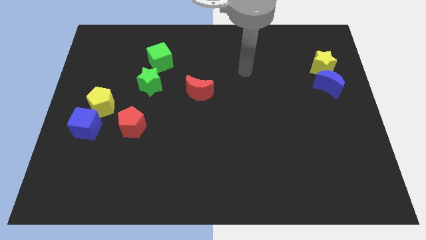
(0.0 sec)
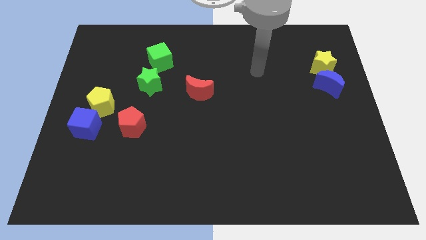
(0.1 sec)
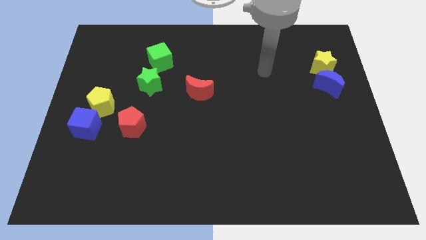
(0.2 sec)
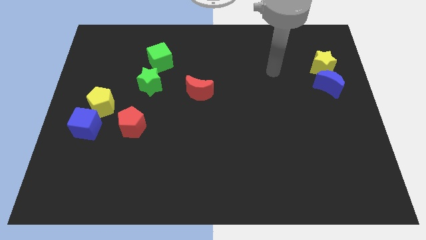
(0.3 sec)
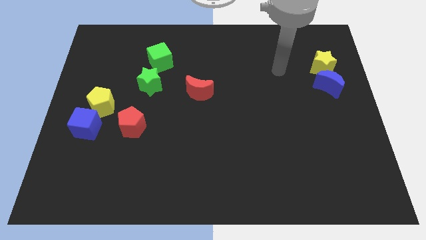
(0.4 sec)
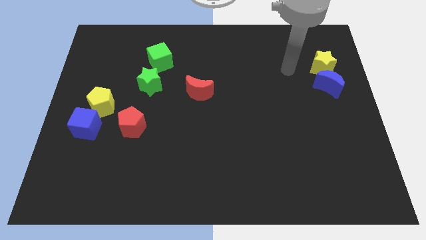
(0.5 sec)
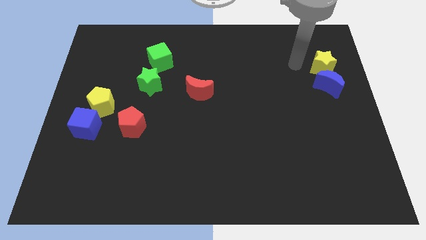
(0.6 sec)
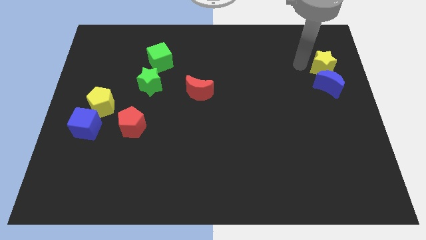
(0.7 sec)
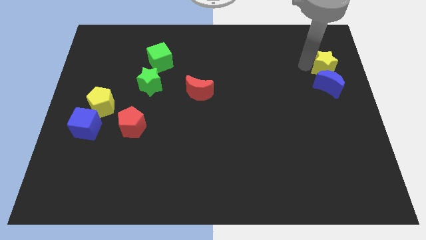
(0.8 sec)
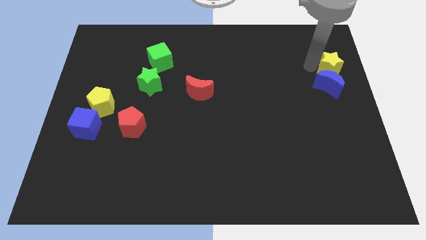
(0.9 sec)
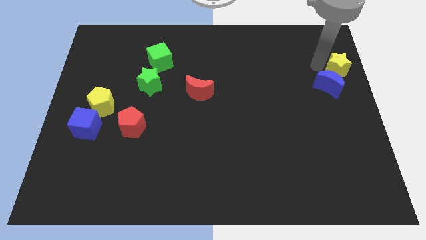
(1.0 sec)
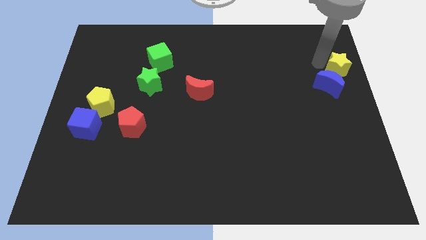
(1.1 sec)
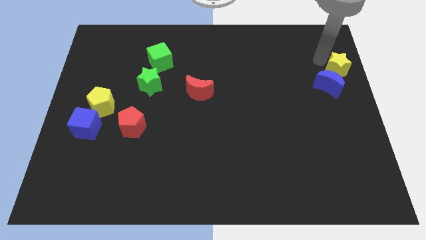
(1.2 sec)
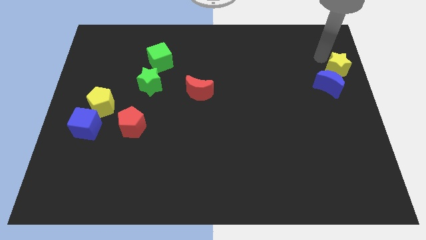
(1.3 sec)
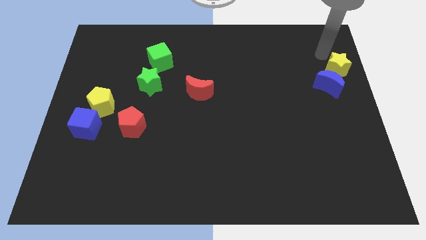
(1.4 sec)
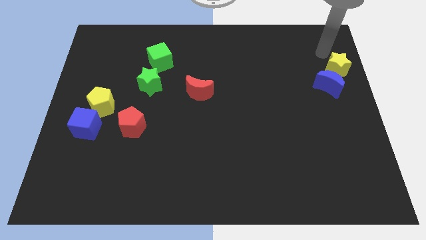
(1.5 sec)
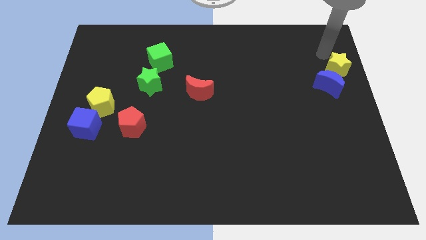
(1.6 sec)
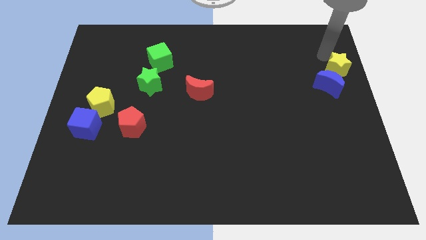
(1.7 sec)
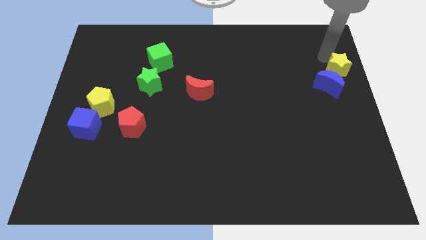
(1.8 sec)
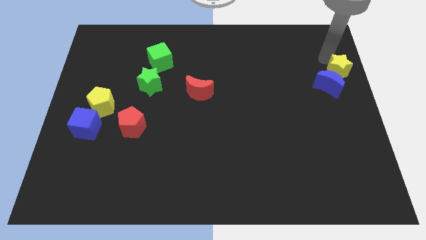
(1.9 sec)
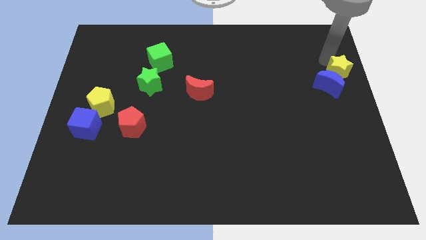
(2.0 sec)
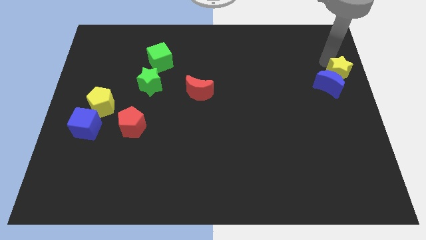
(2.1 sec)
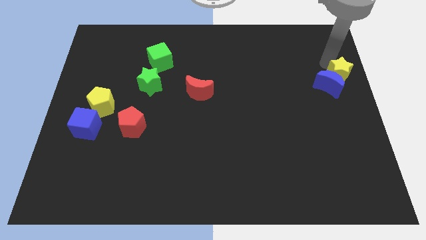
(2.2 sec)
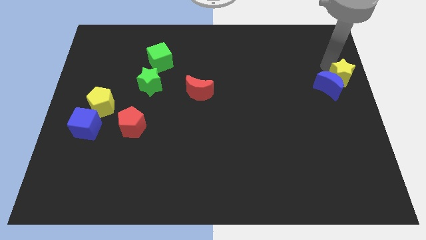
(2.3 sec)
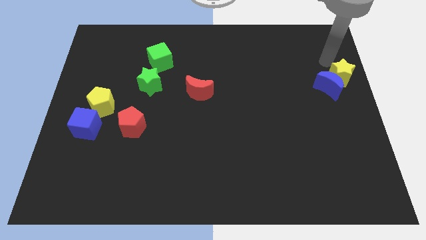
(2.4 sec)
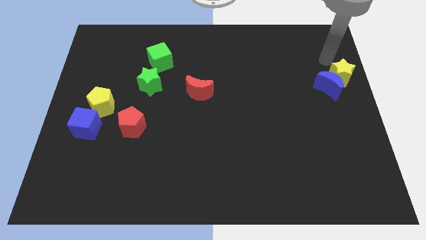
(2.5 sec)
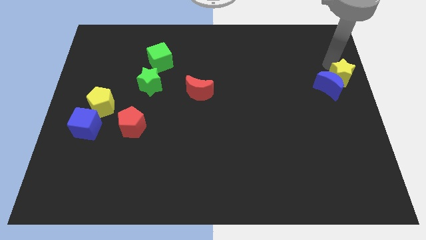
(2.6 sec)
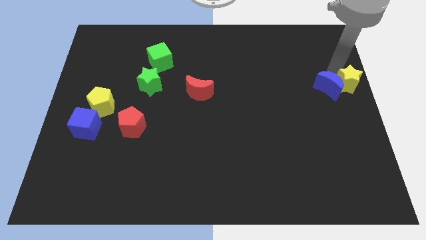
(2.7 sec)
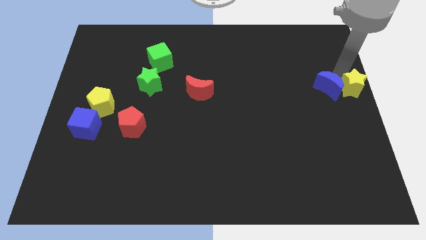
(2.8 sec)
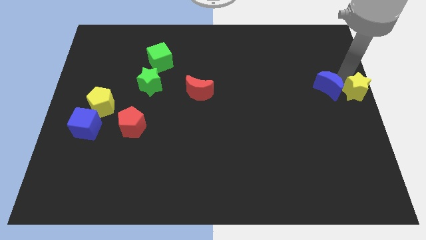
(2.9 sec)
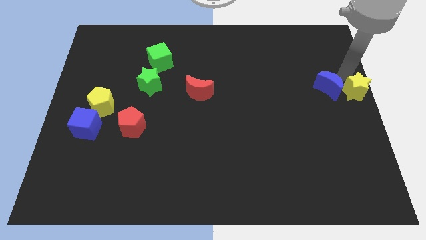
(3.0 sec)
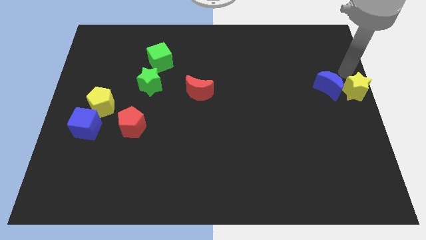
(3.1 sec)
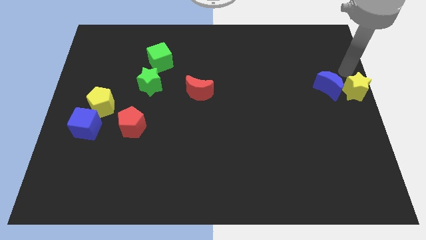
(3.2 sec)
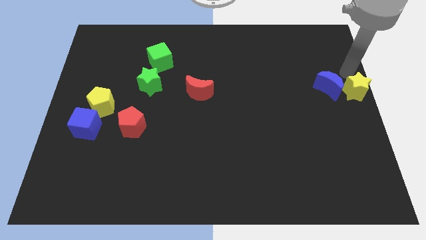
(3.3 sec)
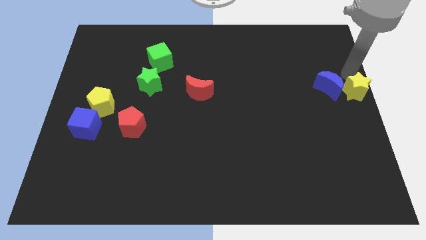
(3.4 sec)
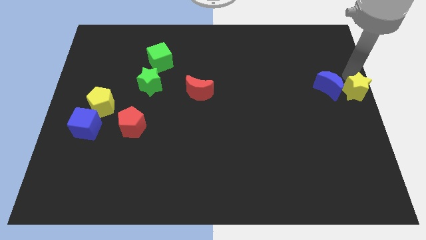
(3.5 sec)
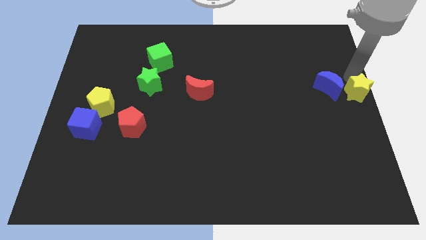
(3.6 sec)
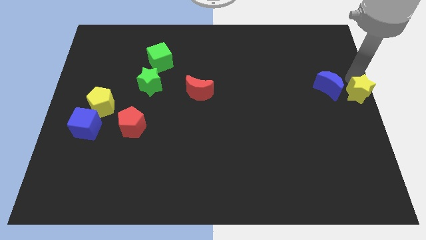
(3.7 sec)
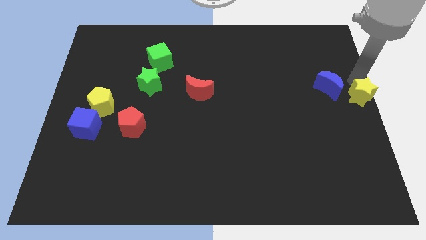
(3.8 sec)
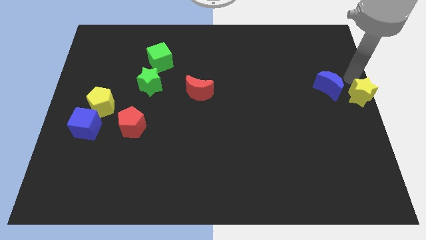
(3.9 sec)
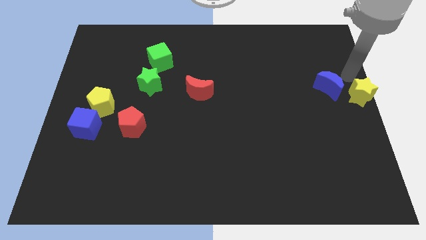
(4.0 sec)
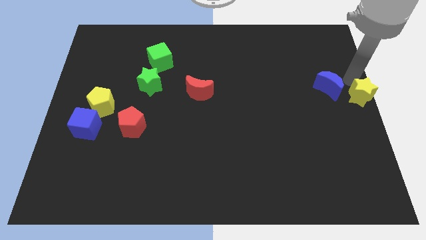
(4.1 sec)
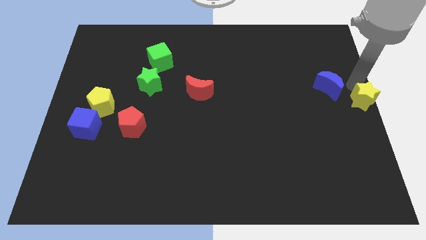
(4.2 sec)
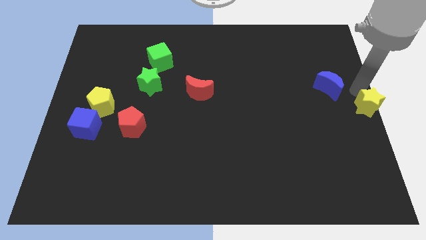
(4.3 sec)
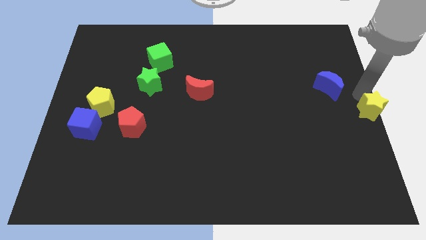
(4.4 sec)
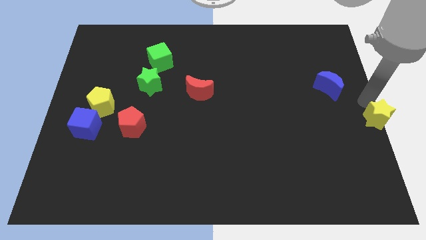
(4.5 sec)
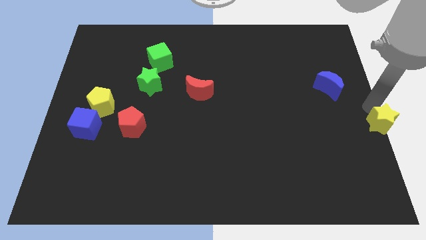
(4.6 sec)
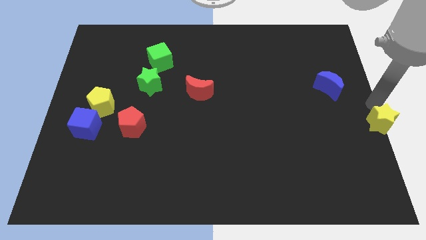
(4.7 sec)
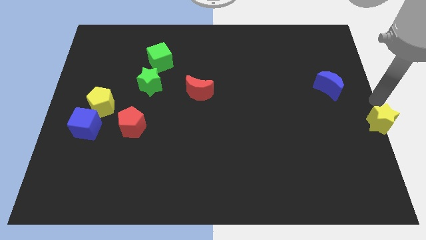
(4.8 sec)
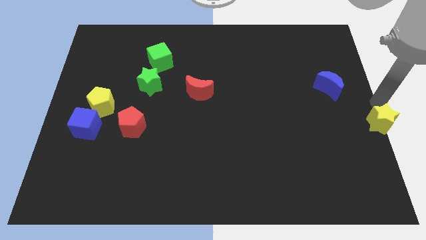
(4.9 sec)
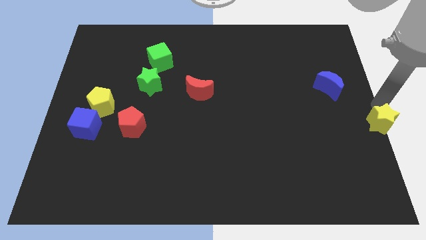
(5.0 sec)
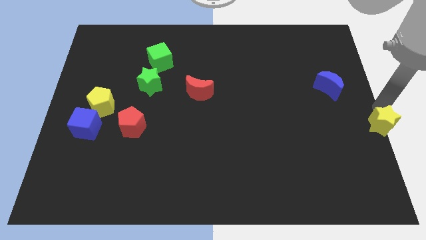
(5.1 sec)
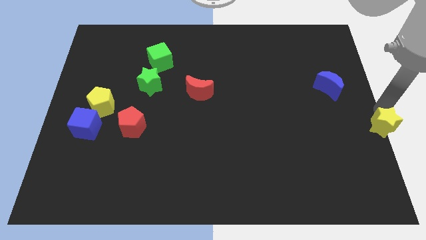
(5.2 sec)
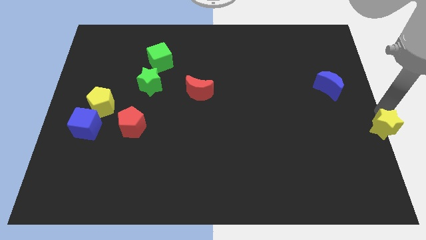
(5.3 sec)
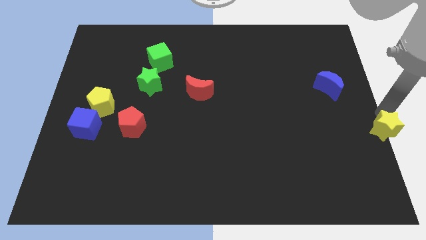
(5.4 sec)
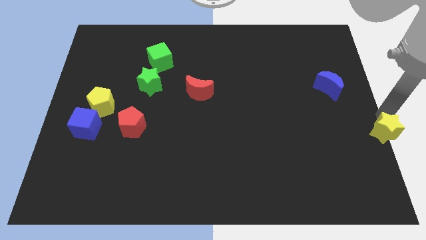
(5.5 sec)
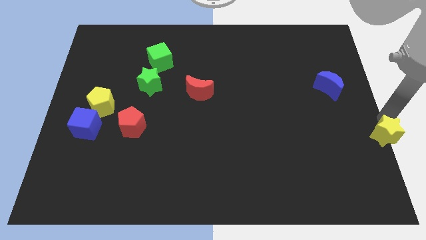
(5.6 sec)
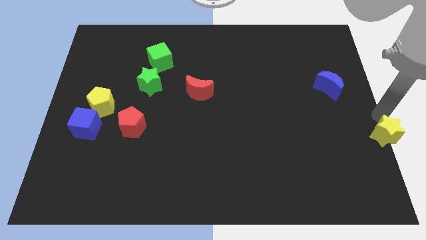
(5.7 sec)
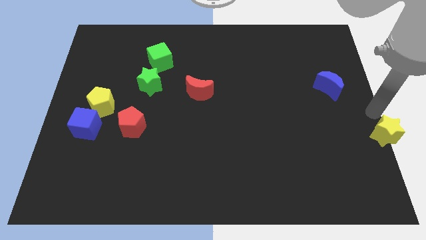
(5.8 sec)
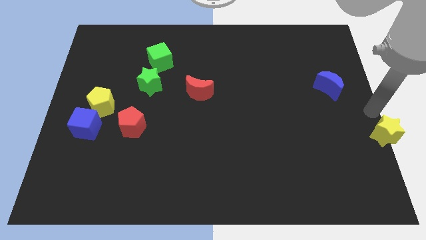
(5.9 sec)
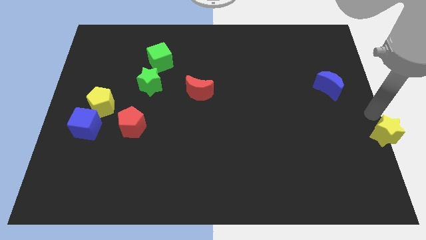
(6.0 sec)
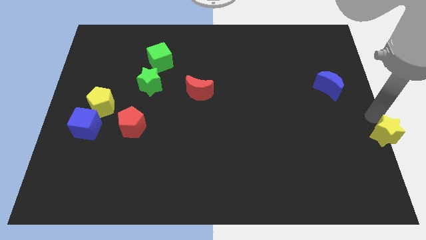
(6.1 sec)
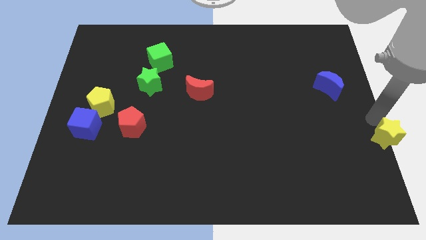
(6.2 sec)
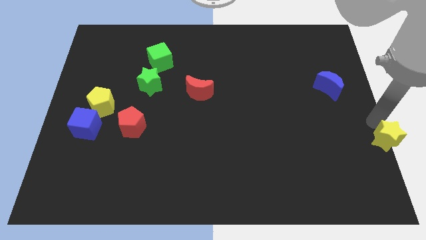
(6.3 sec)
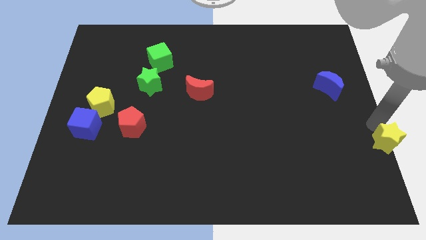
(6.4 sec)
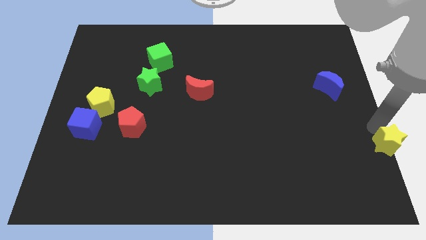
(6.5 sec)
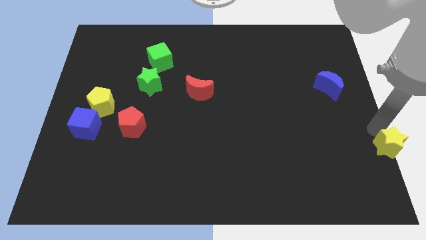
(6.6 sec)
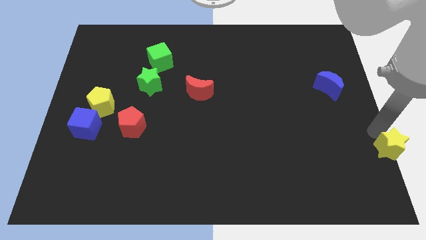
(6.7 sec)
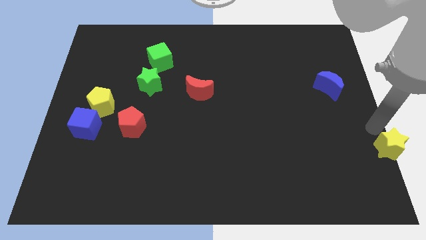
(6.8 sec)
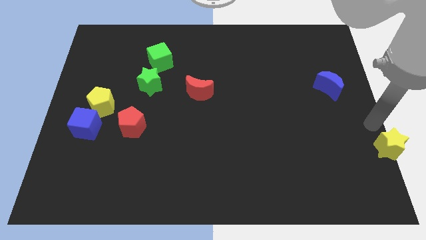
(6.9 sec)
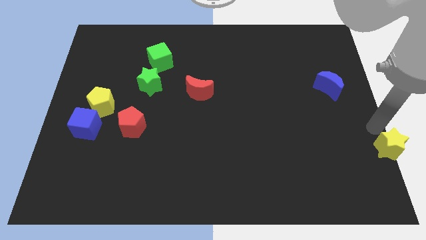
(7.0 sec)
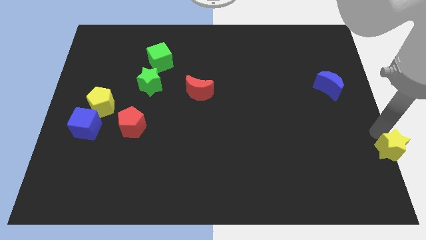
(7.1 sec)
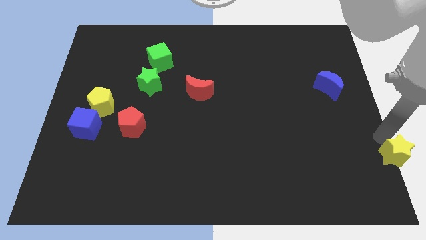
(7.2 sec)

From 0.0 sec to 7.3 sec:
put the yellow star to the bottom right of the board
